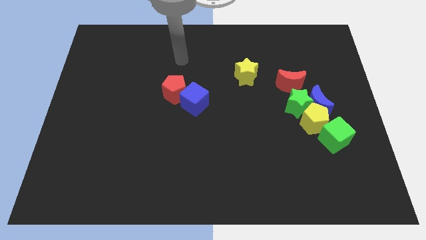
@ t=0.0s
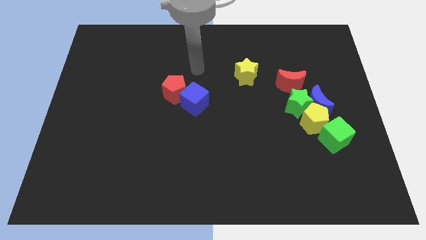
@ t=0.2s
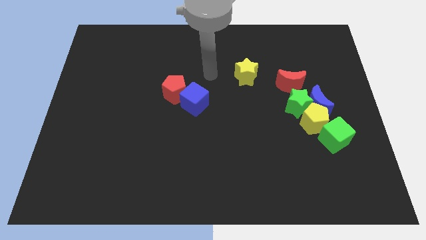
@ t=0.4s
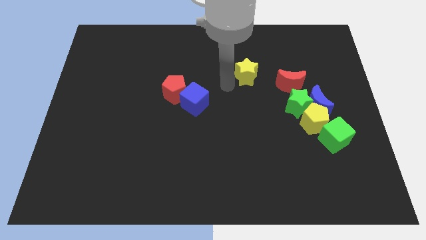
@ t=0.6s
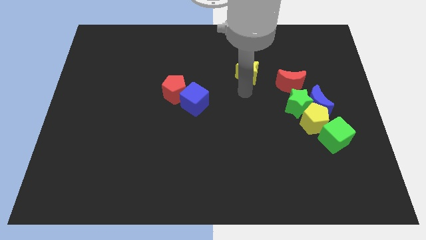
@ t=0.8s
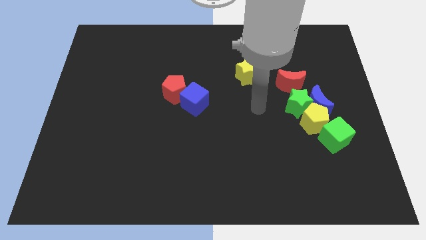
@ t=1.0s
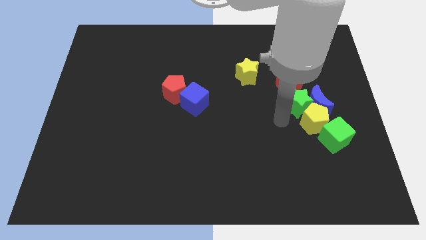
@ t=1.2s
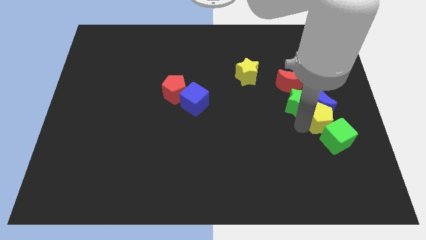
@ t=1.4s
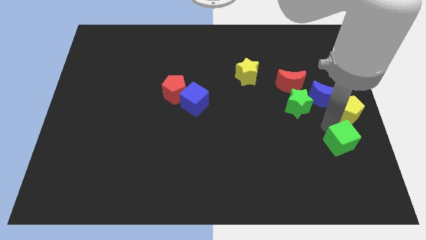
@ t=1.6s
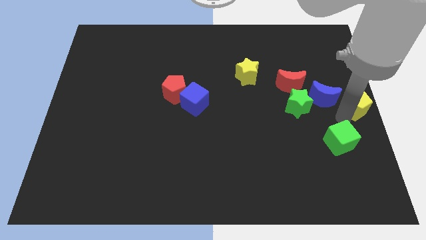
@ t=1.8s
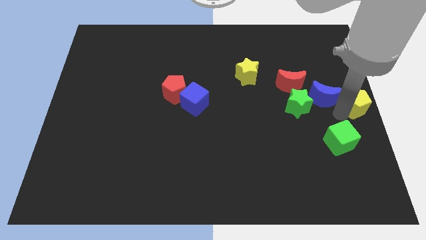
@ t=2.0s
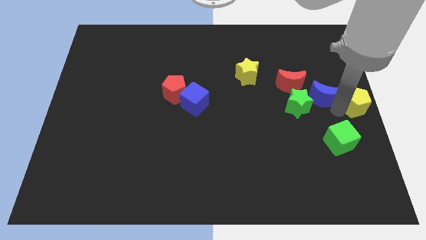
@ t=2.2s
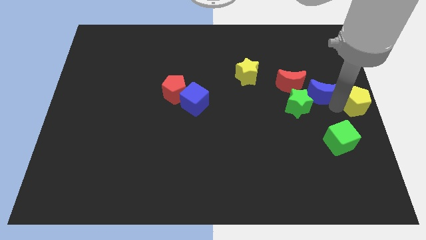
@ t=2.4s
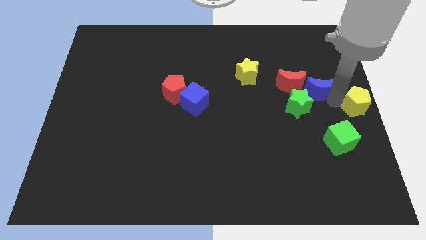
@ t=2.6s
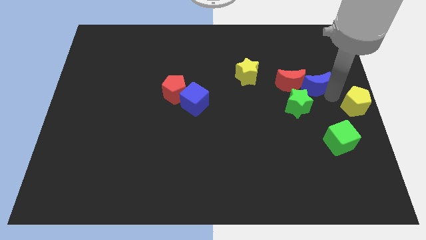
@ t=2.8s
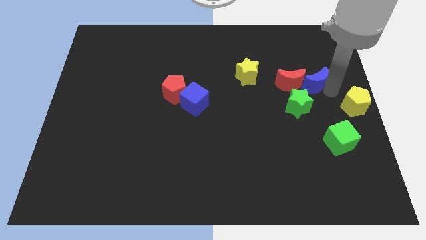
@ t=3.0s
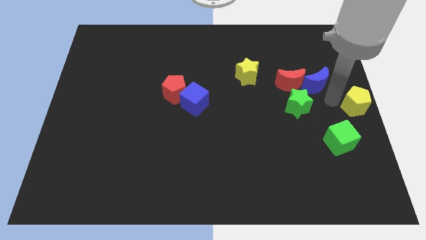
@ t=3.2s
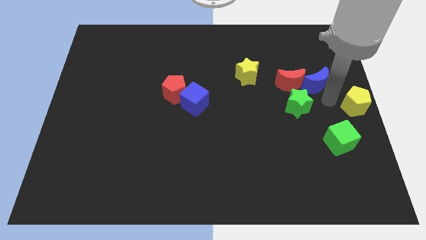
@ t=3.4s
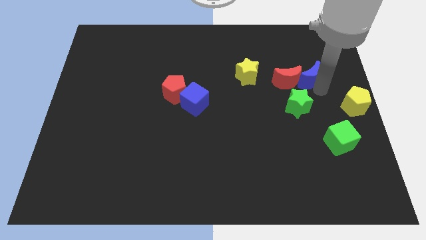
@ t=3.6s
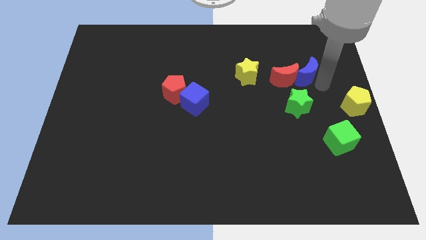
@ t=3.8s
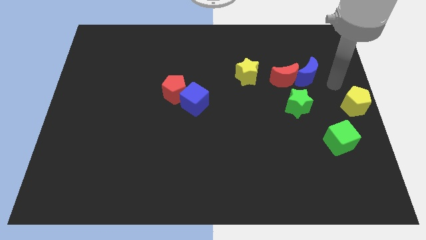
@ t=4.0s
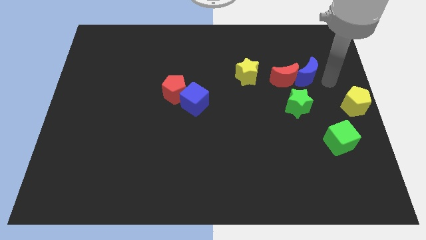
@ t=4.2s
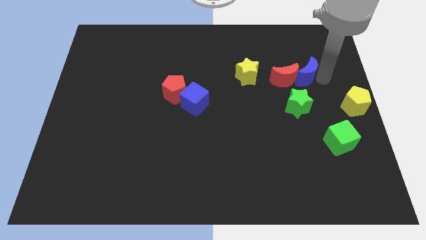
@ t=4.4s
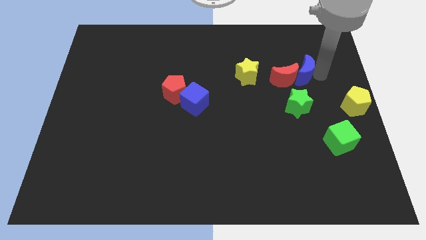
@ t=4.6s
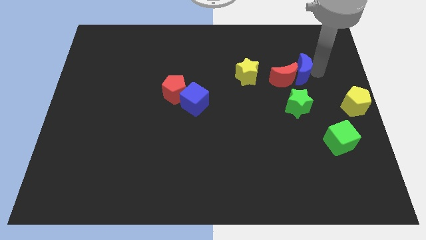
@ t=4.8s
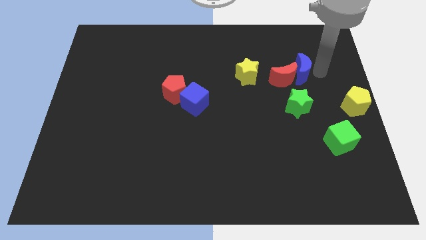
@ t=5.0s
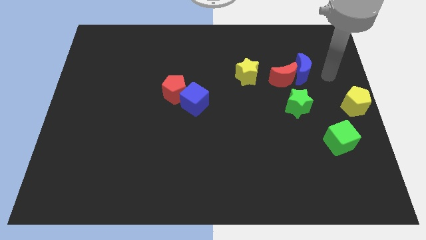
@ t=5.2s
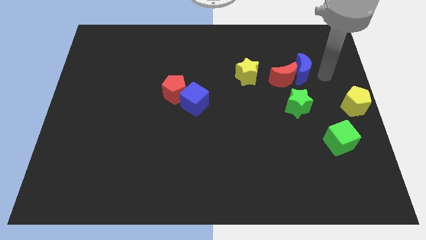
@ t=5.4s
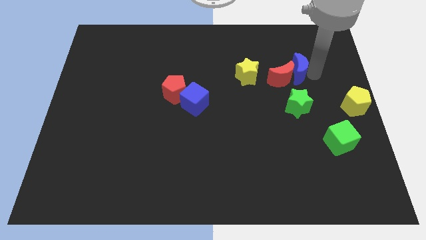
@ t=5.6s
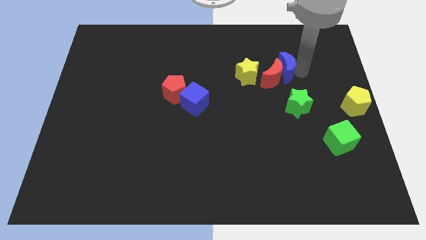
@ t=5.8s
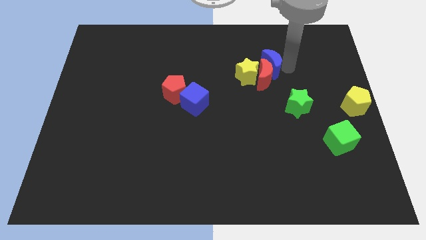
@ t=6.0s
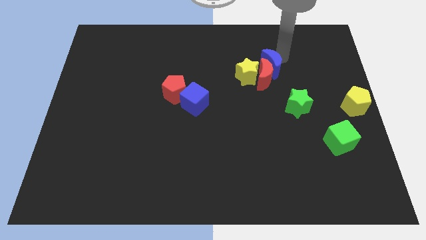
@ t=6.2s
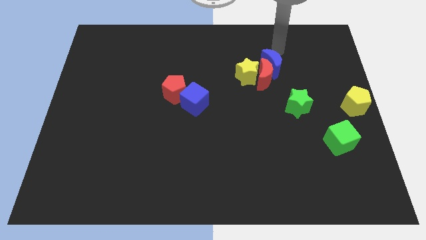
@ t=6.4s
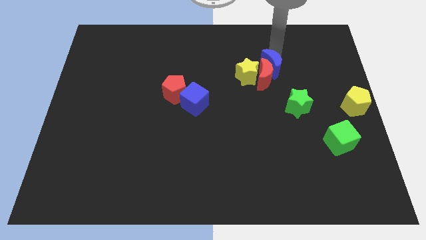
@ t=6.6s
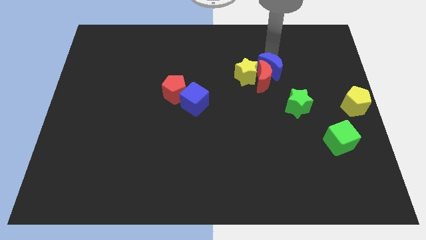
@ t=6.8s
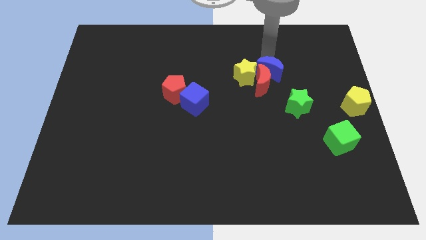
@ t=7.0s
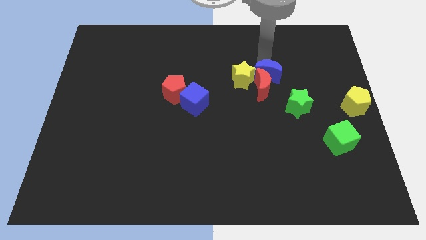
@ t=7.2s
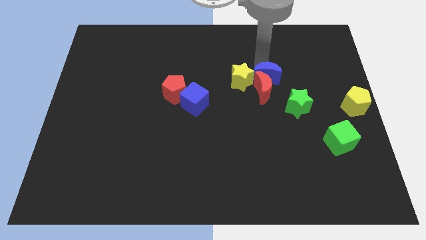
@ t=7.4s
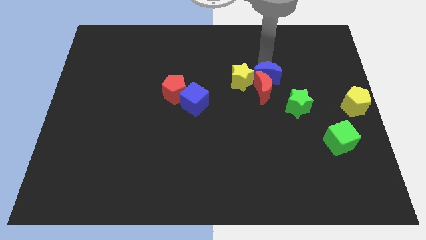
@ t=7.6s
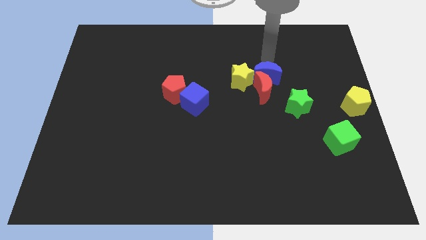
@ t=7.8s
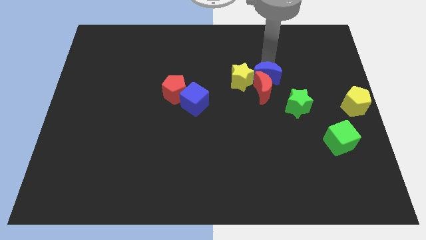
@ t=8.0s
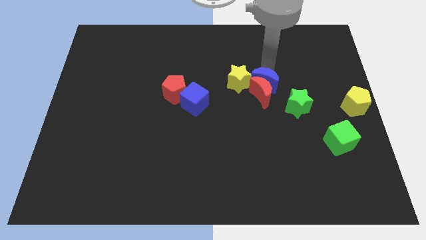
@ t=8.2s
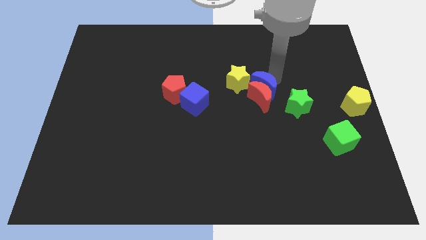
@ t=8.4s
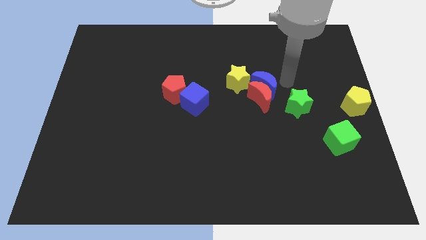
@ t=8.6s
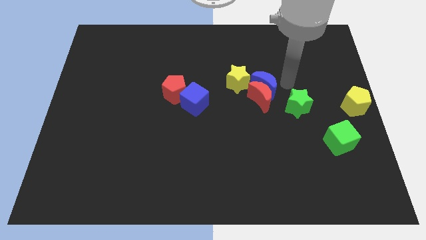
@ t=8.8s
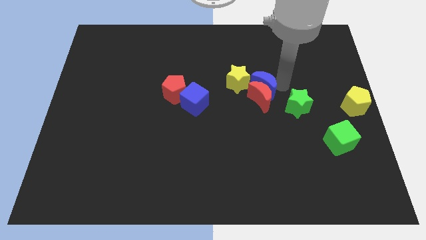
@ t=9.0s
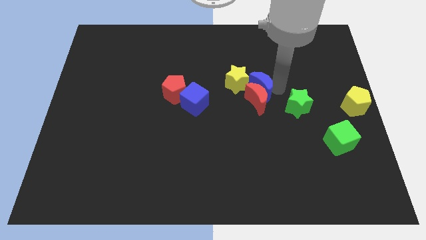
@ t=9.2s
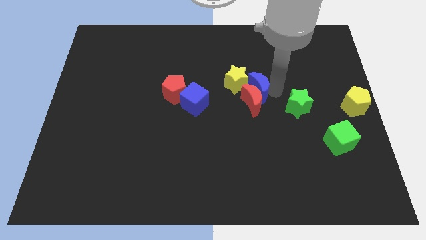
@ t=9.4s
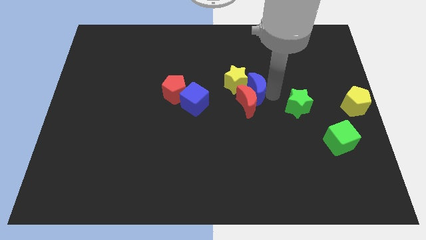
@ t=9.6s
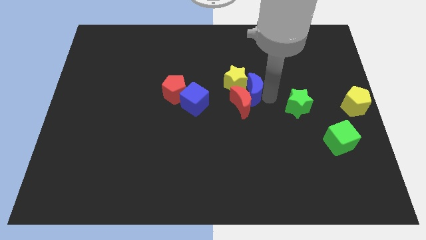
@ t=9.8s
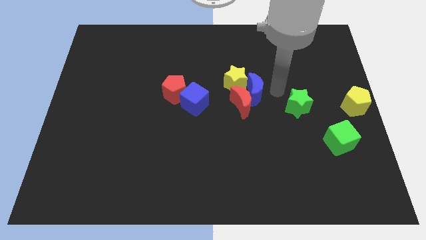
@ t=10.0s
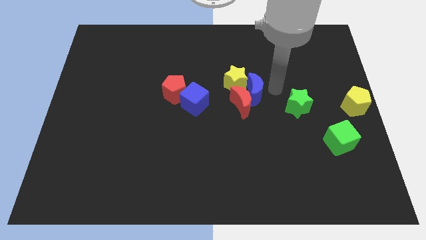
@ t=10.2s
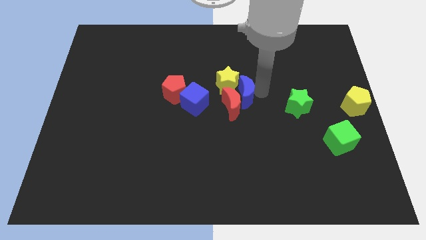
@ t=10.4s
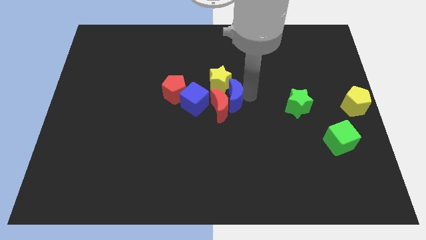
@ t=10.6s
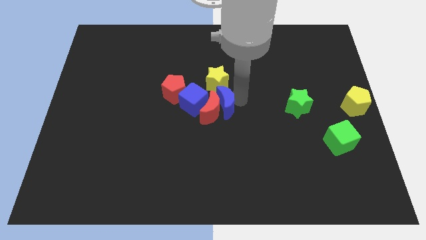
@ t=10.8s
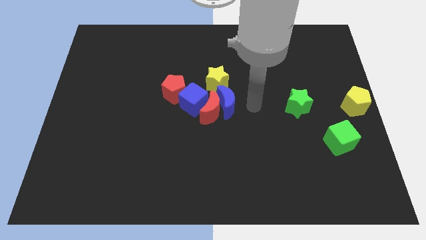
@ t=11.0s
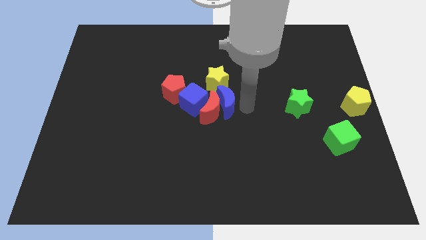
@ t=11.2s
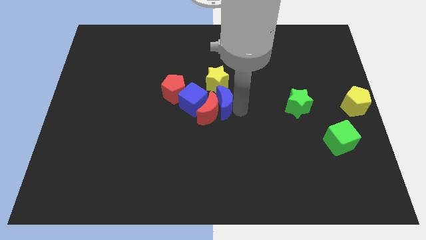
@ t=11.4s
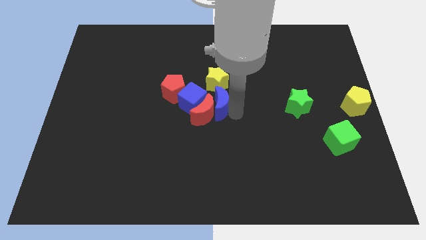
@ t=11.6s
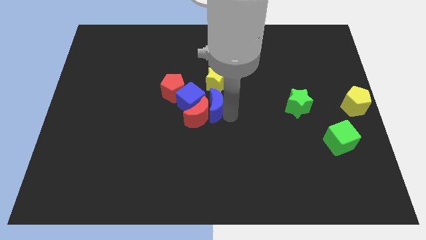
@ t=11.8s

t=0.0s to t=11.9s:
push the blue moon to the blue cube

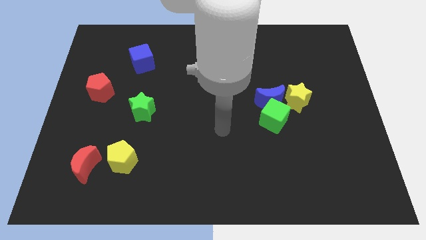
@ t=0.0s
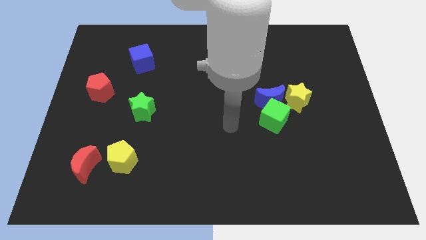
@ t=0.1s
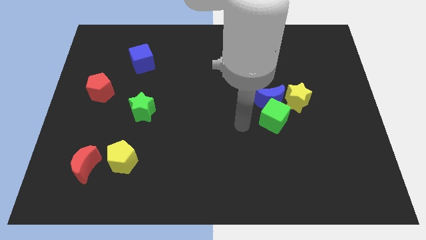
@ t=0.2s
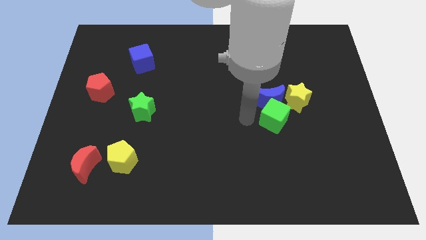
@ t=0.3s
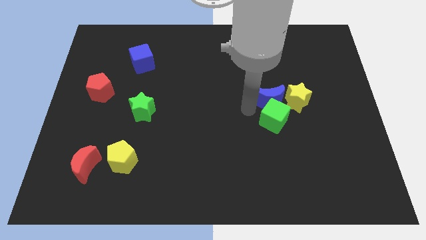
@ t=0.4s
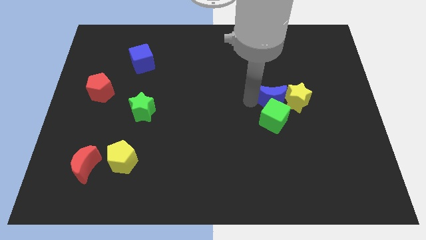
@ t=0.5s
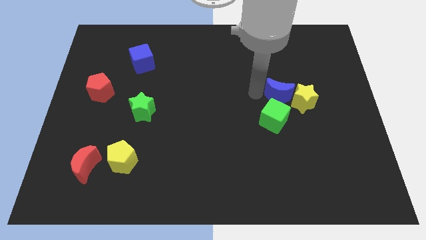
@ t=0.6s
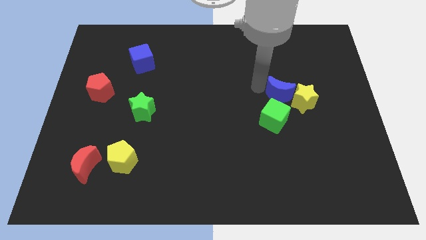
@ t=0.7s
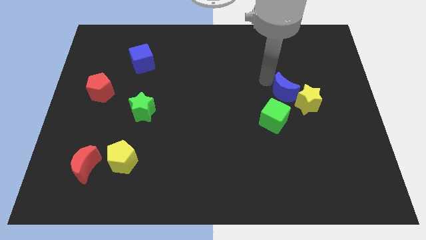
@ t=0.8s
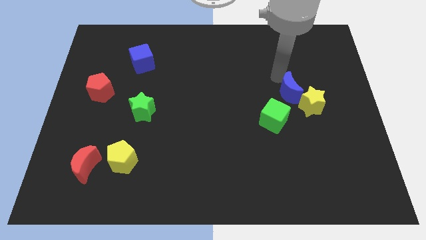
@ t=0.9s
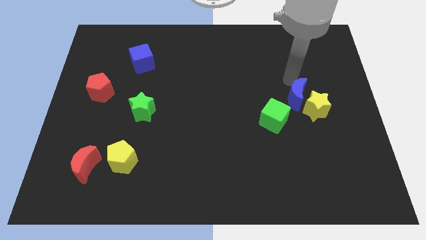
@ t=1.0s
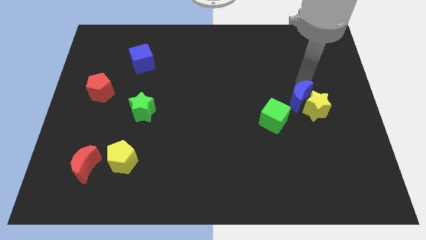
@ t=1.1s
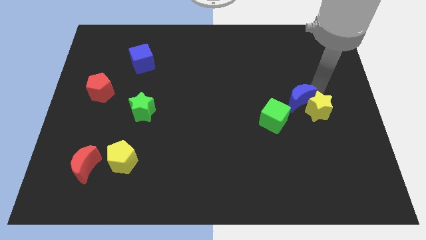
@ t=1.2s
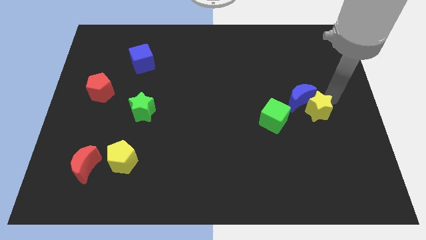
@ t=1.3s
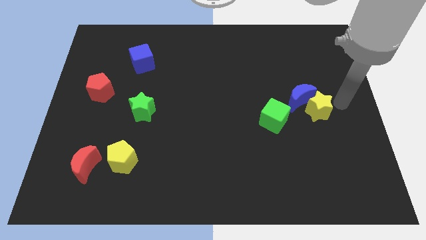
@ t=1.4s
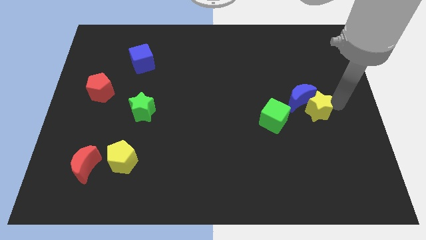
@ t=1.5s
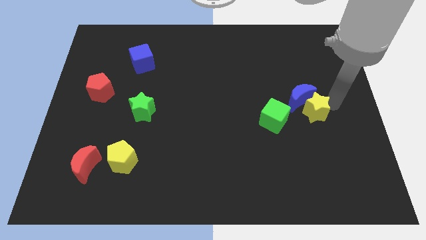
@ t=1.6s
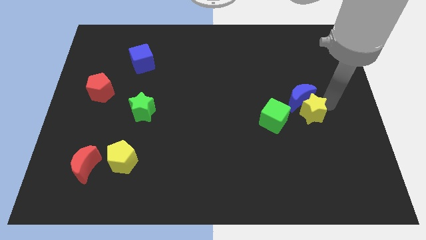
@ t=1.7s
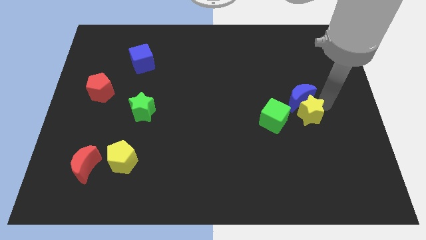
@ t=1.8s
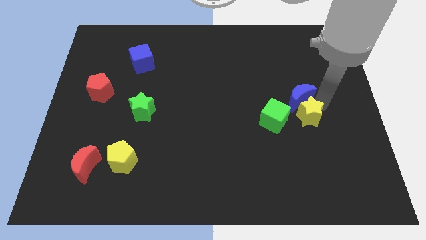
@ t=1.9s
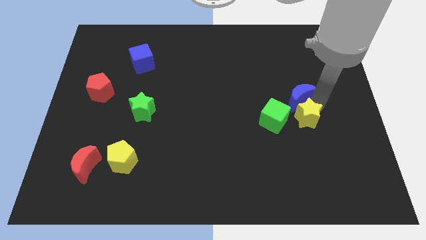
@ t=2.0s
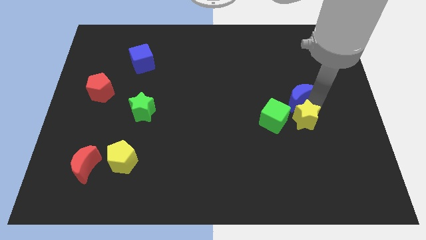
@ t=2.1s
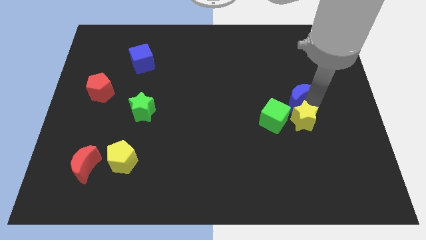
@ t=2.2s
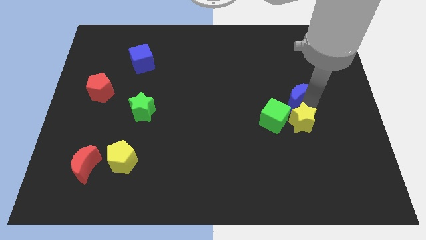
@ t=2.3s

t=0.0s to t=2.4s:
move the yellow star next to the green cube

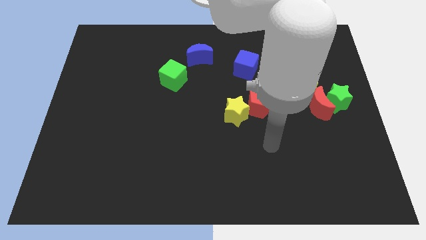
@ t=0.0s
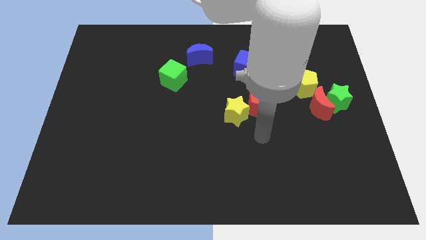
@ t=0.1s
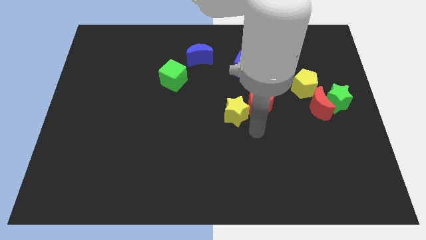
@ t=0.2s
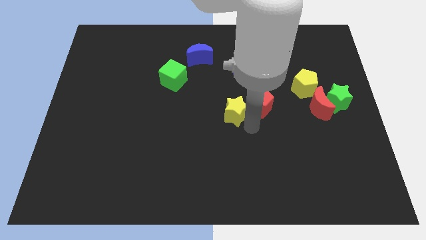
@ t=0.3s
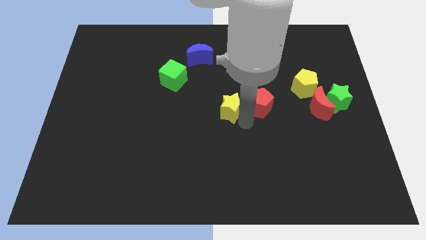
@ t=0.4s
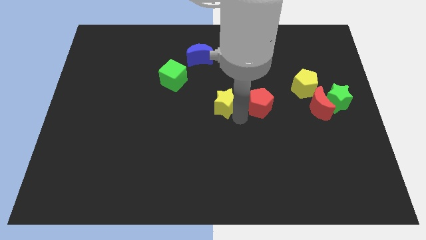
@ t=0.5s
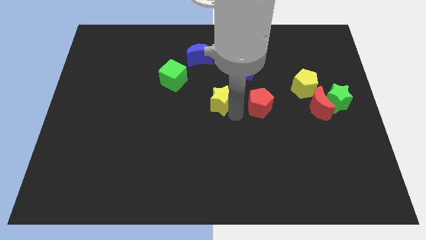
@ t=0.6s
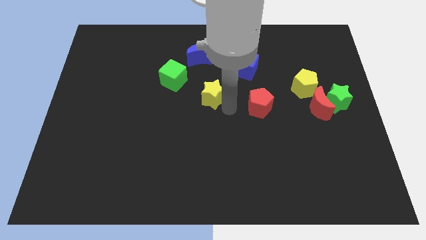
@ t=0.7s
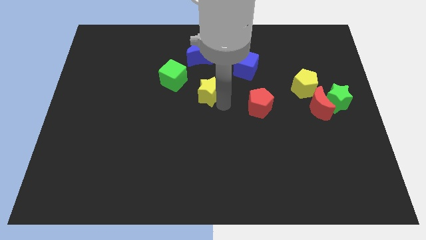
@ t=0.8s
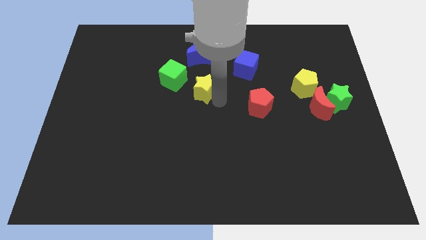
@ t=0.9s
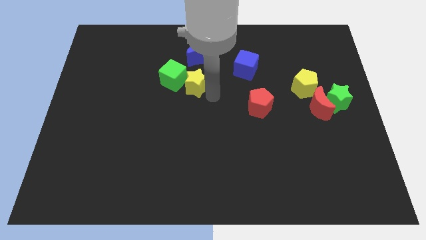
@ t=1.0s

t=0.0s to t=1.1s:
push the yellow star next to the green cube
